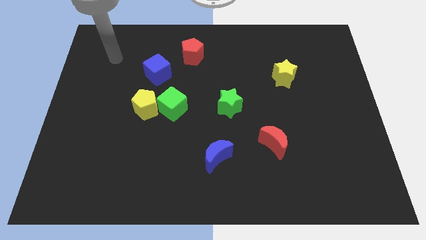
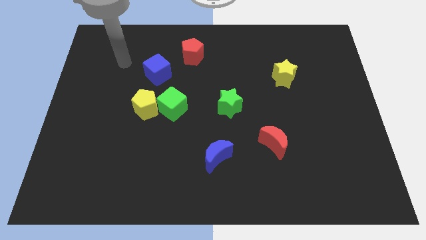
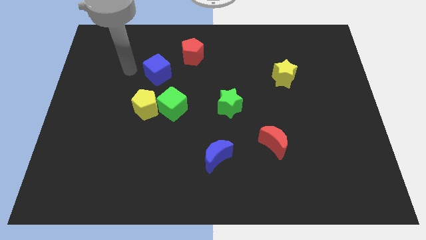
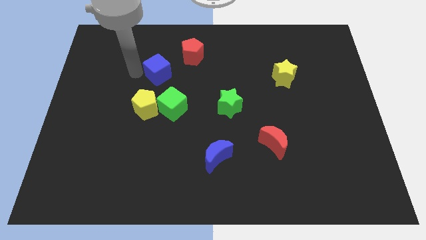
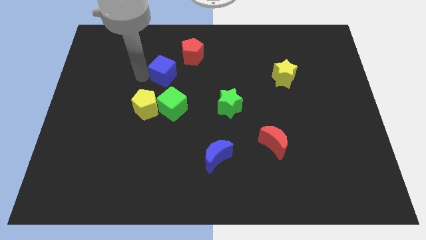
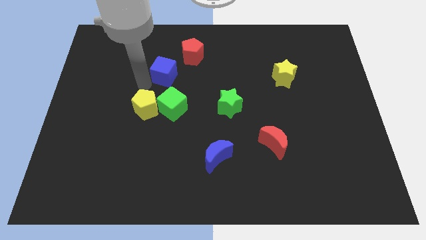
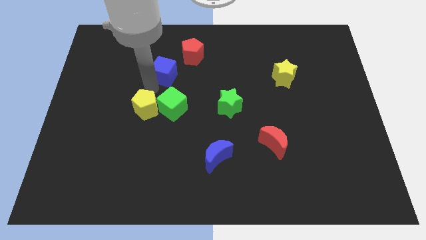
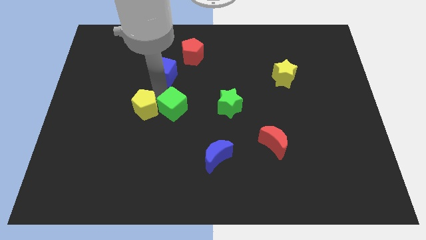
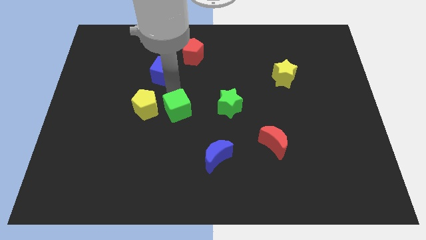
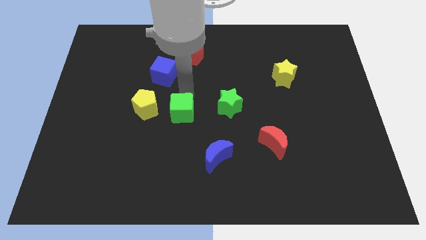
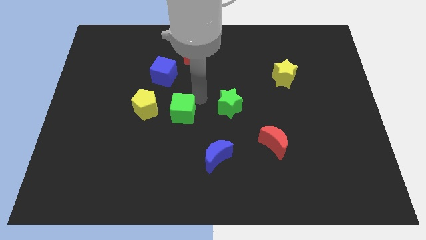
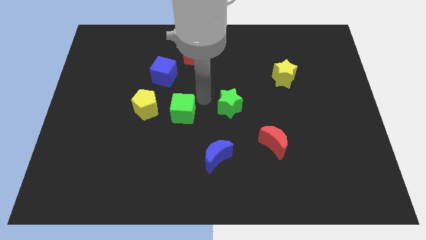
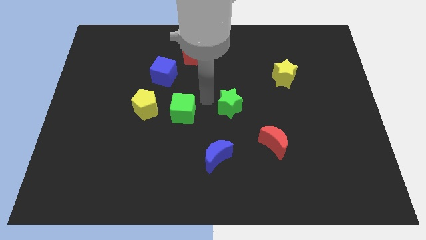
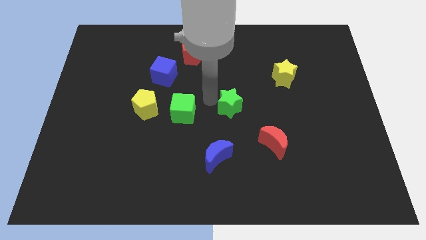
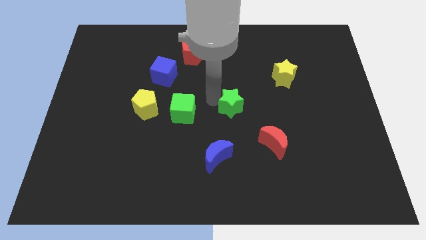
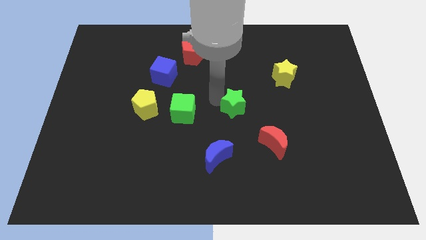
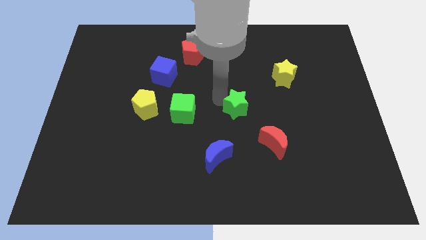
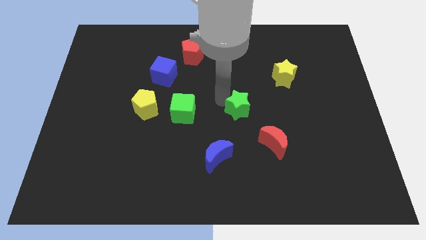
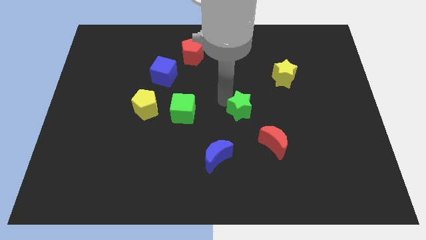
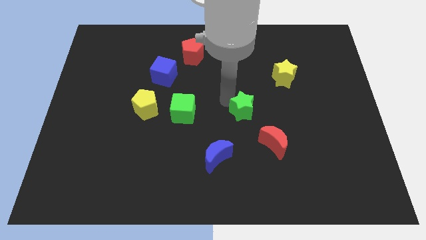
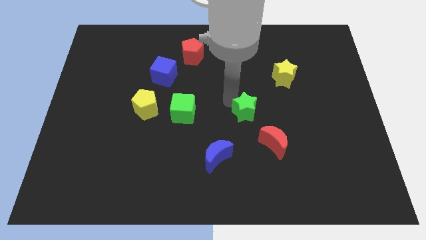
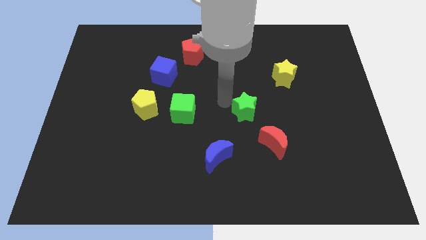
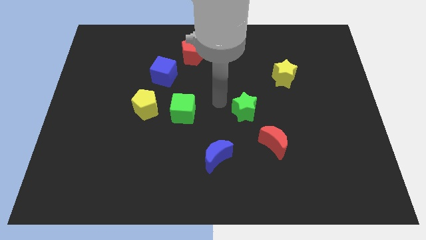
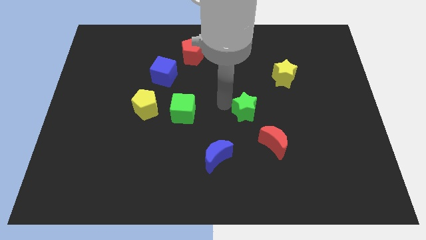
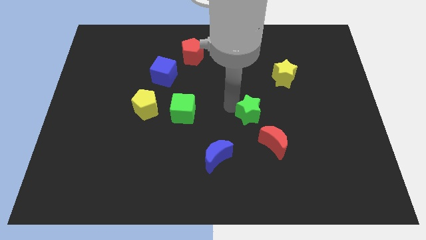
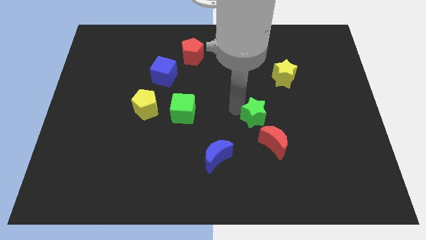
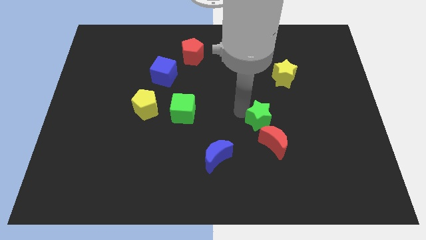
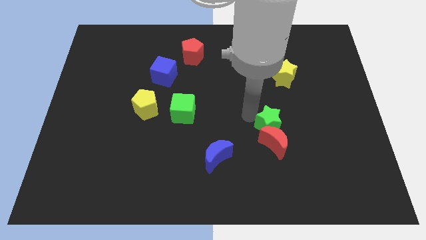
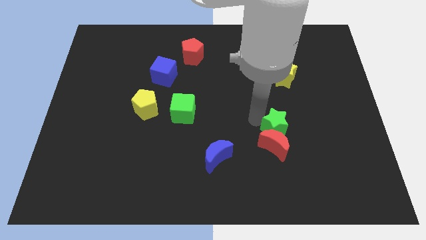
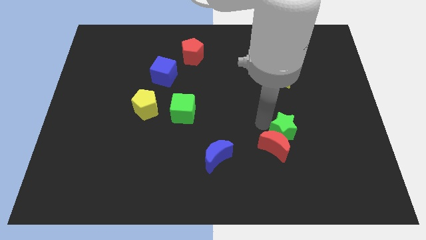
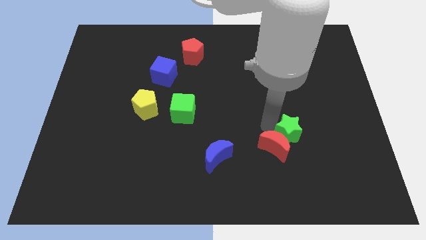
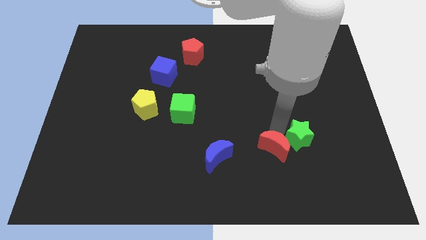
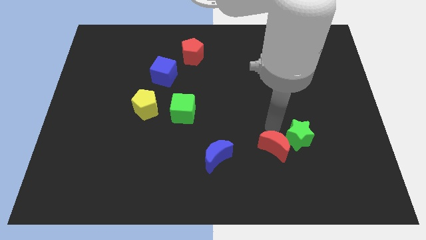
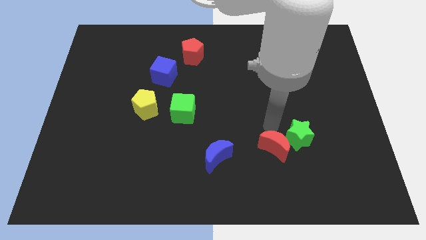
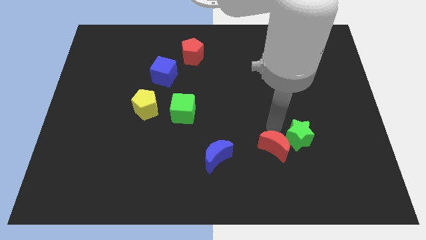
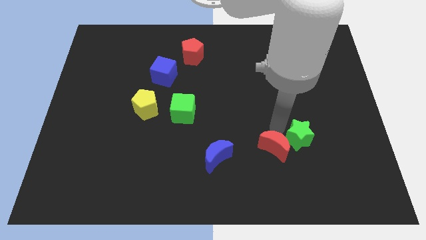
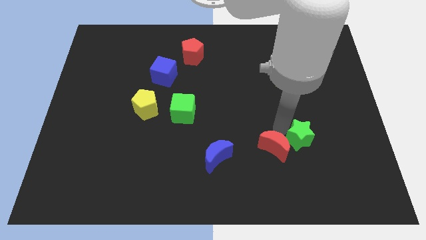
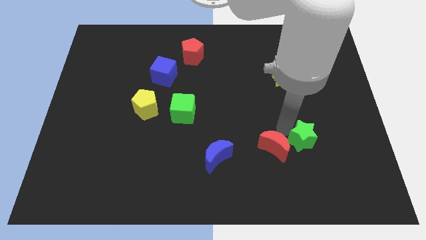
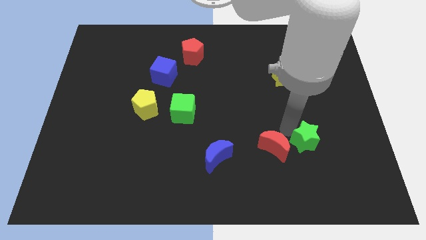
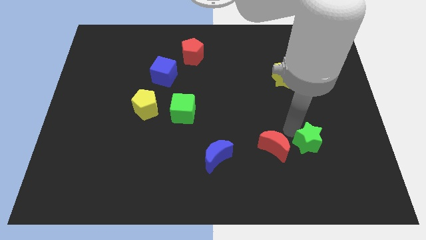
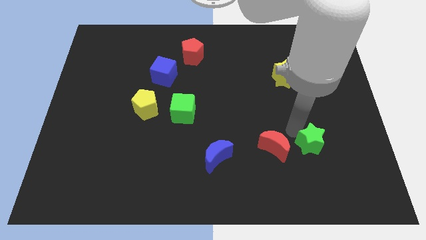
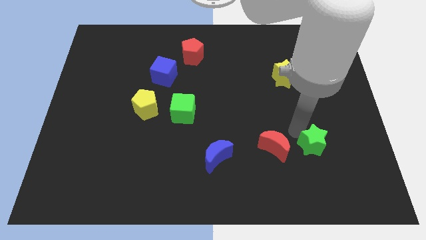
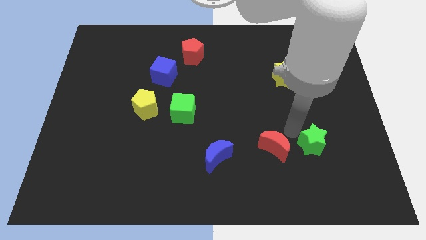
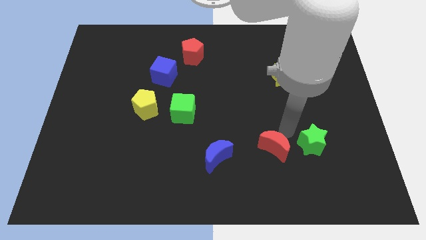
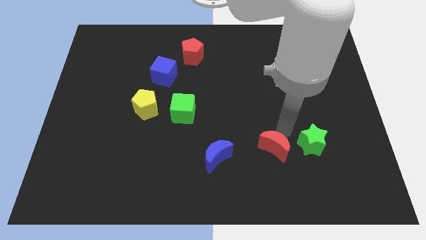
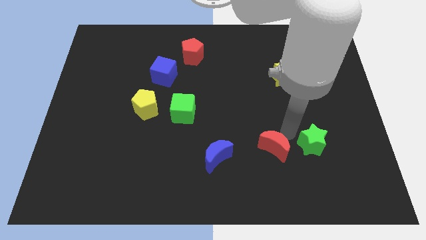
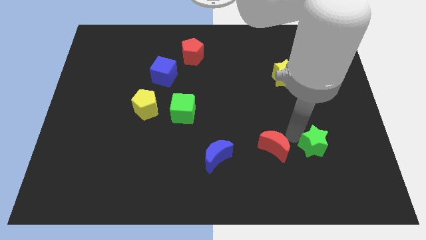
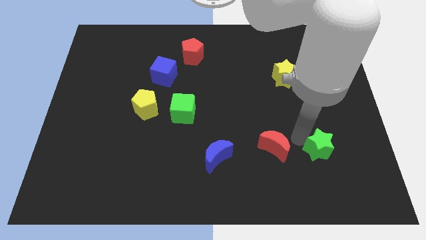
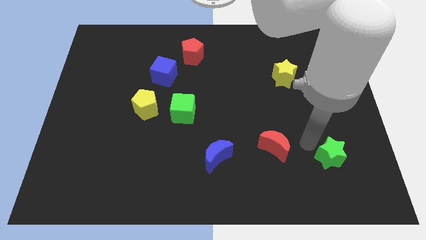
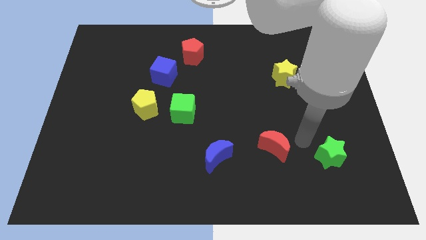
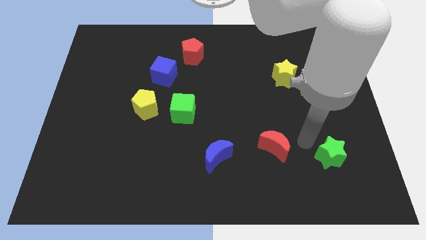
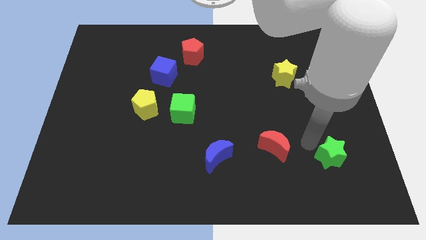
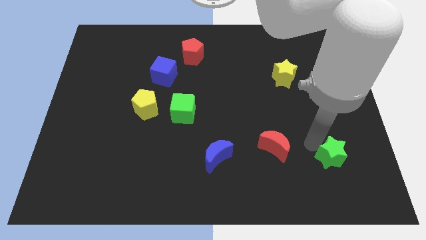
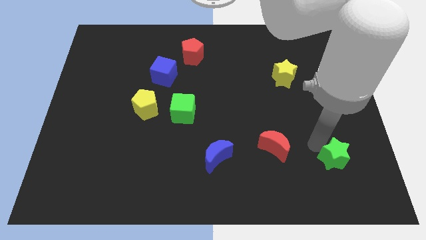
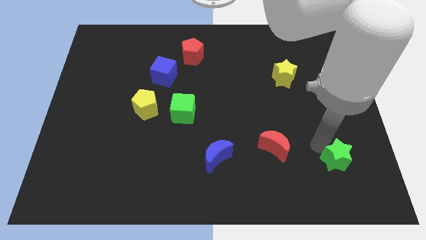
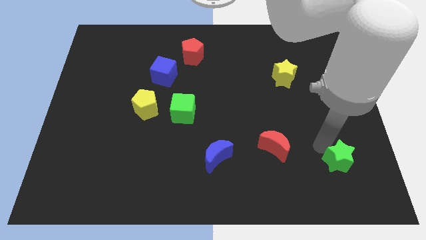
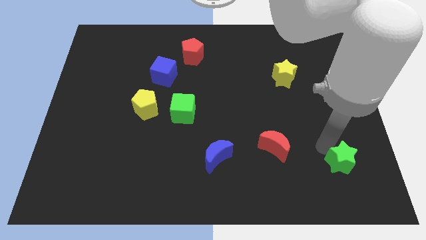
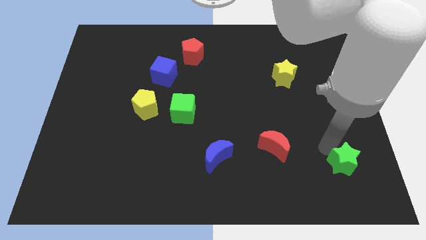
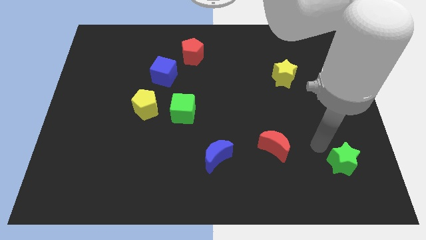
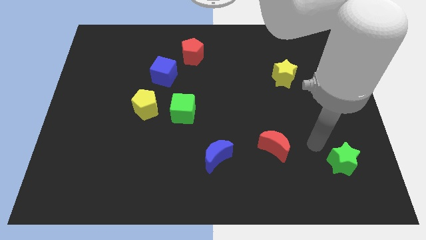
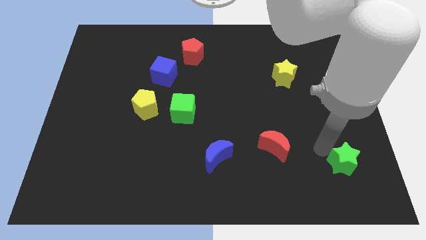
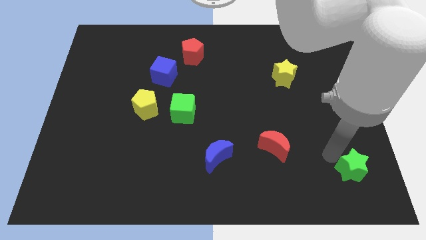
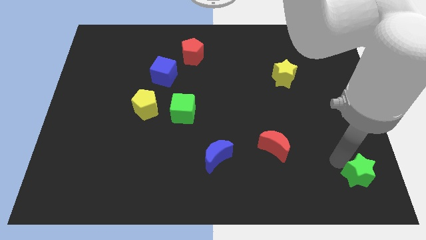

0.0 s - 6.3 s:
push the green star to the bottom right of the board

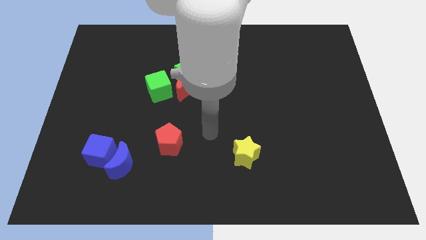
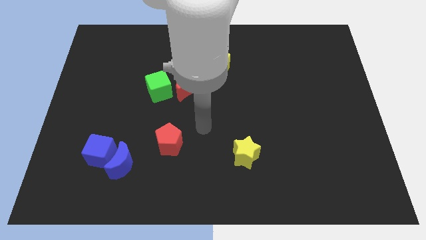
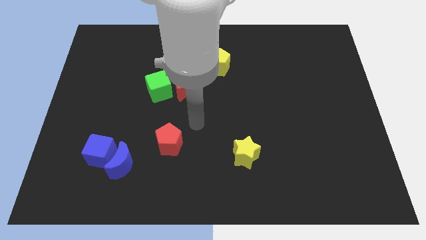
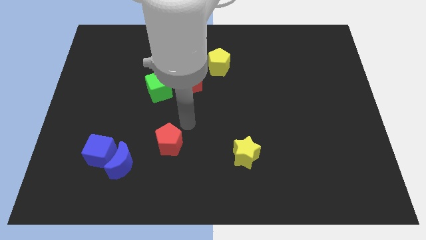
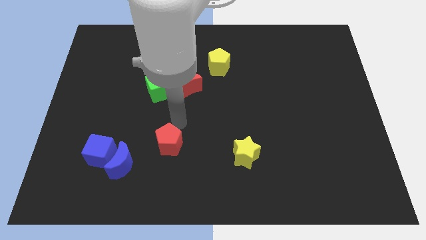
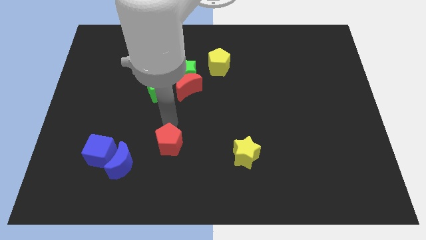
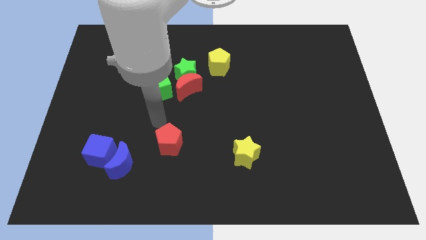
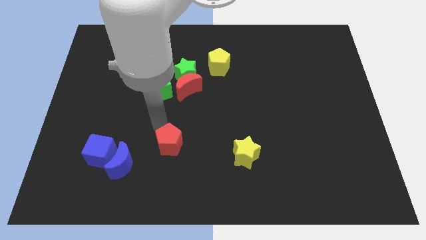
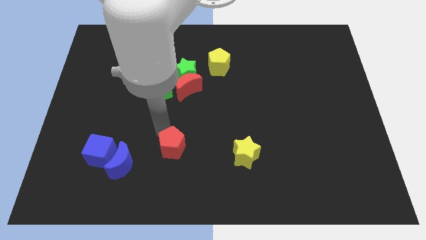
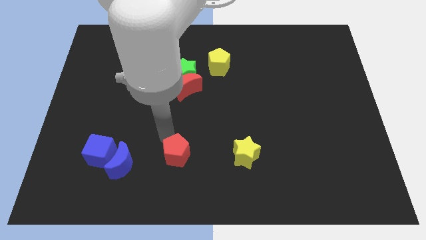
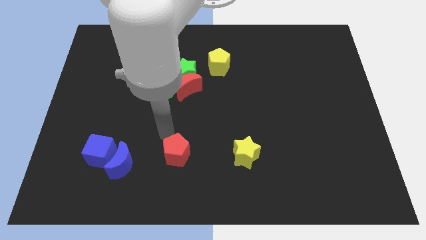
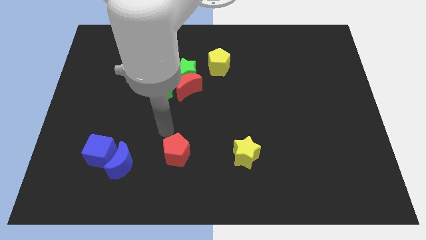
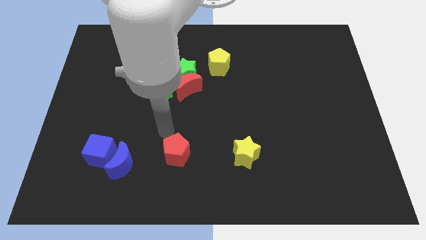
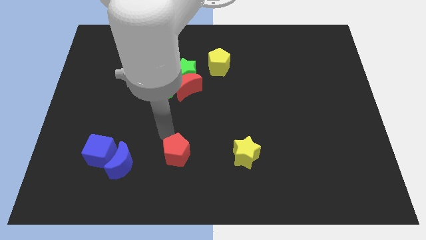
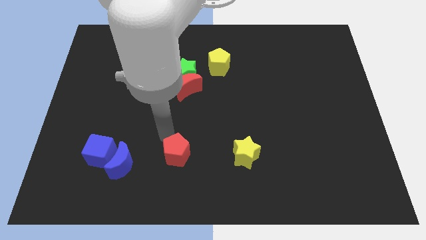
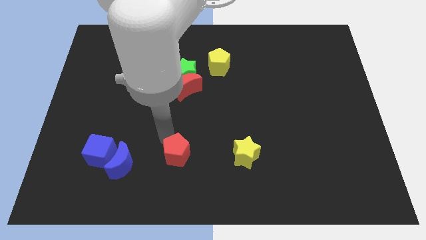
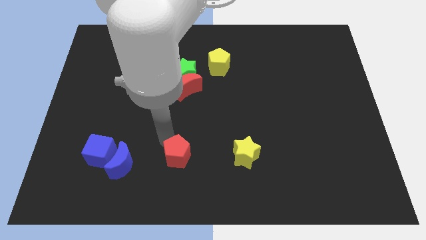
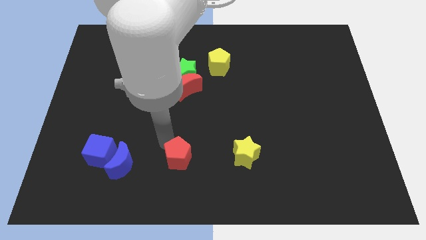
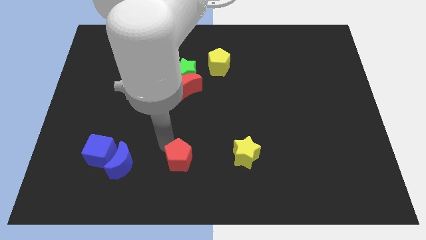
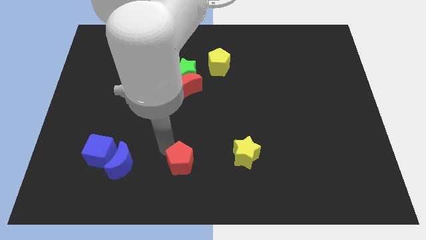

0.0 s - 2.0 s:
put the red pentagon to the bottom
